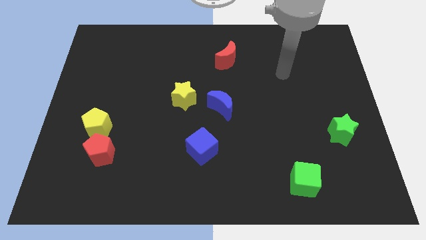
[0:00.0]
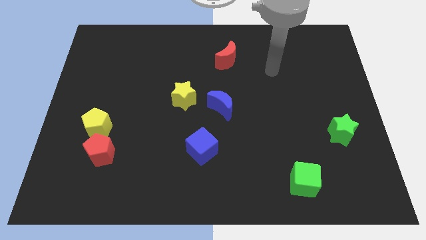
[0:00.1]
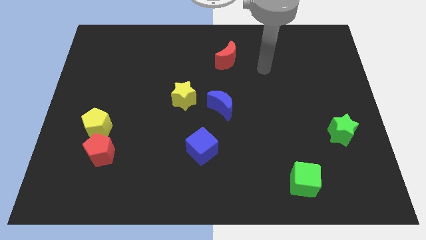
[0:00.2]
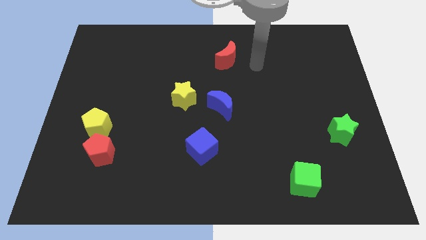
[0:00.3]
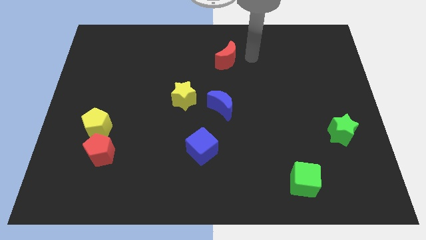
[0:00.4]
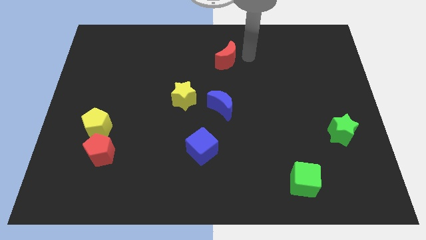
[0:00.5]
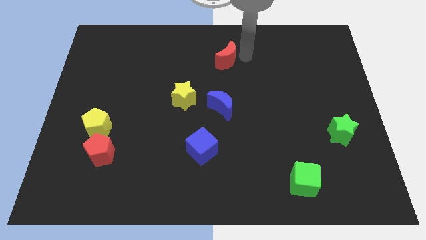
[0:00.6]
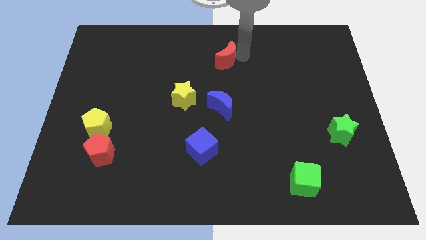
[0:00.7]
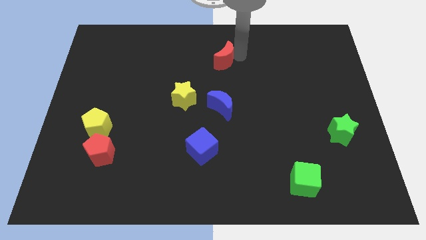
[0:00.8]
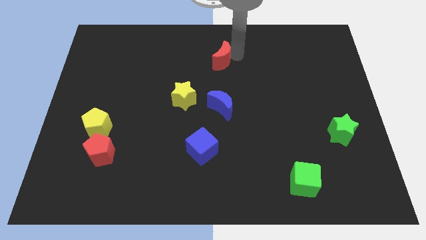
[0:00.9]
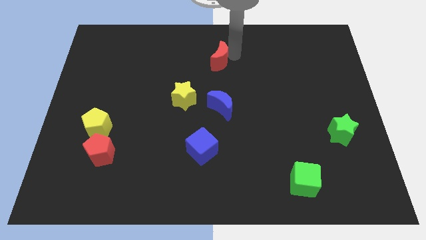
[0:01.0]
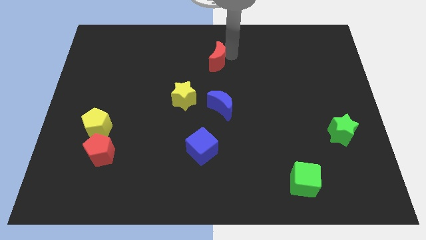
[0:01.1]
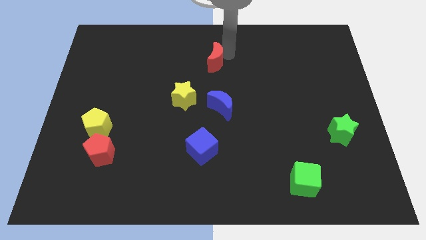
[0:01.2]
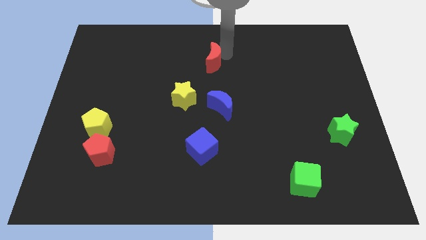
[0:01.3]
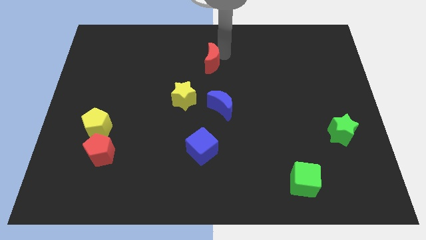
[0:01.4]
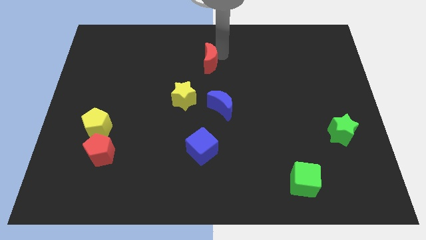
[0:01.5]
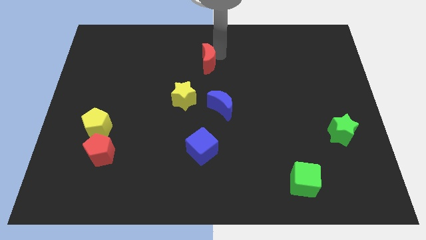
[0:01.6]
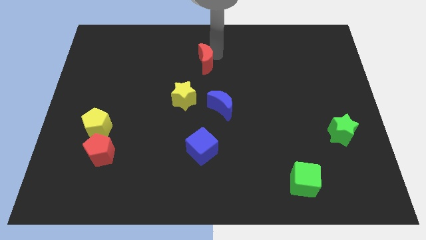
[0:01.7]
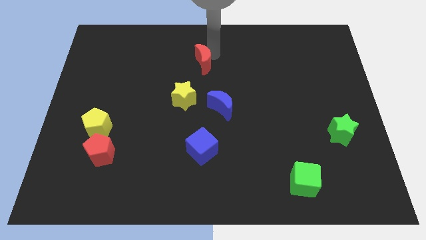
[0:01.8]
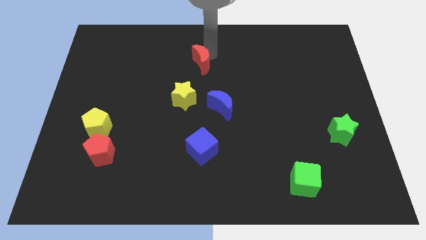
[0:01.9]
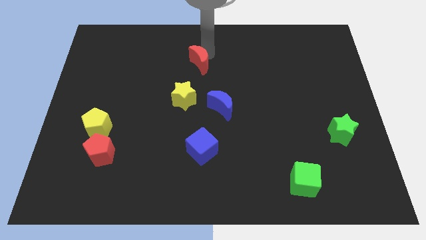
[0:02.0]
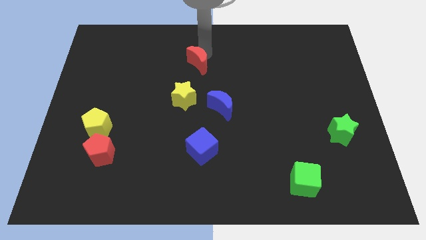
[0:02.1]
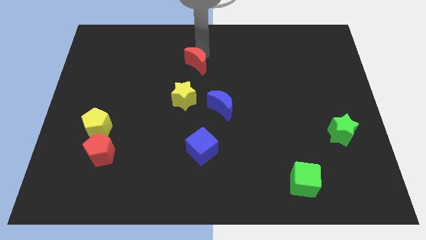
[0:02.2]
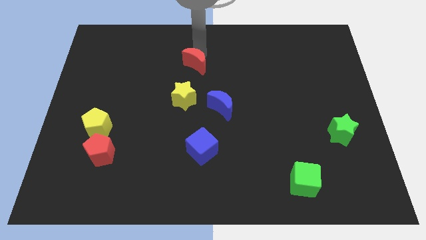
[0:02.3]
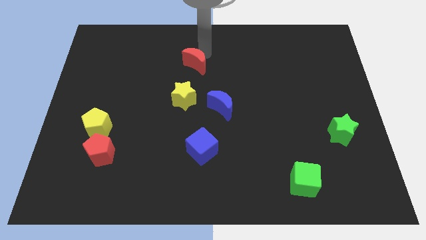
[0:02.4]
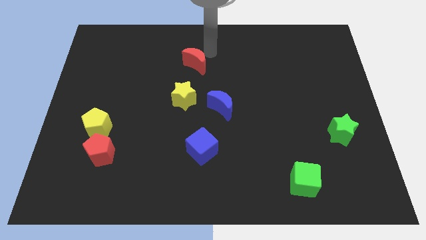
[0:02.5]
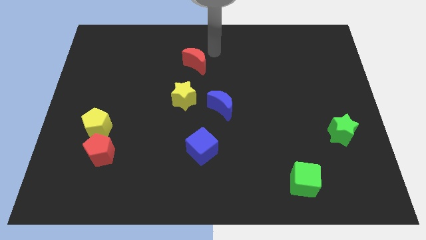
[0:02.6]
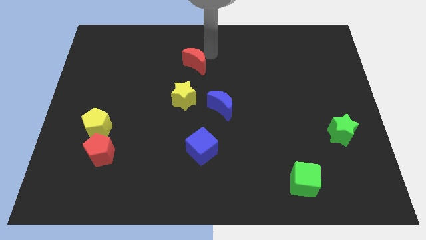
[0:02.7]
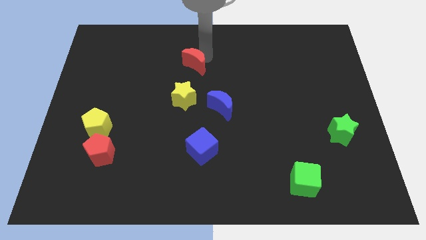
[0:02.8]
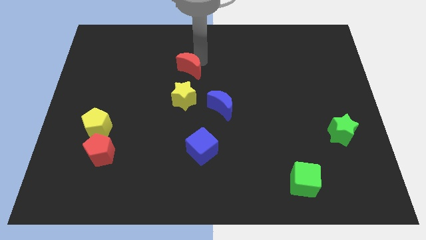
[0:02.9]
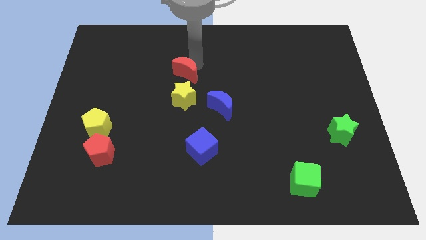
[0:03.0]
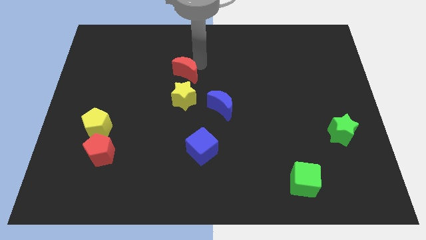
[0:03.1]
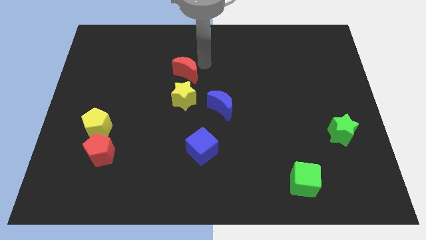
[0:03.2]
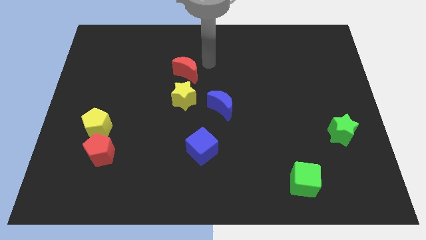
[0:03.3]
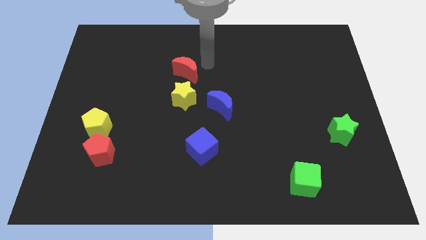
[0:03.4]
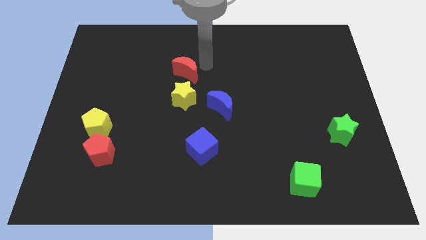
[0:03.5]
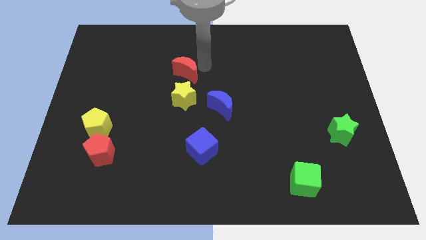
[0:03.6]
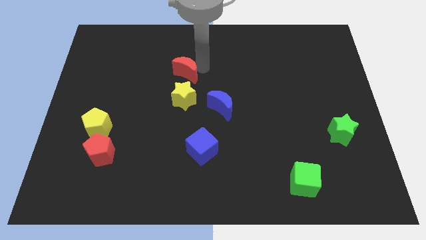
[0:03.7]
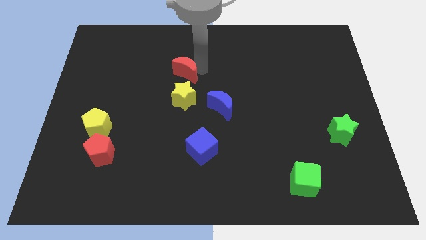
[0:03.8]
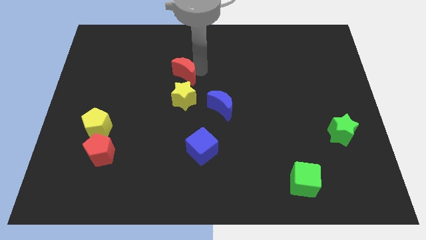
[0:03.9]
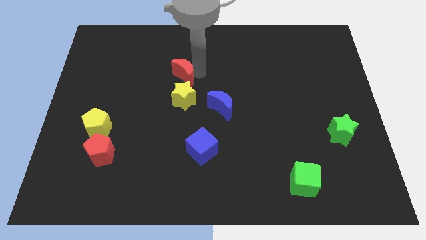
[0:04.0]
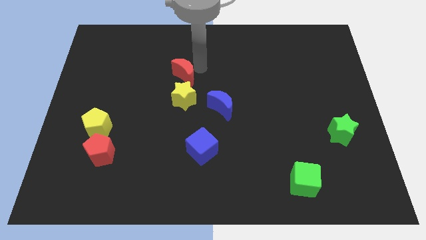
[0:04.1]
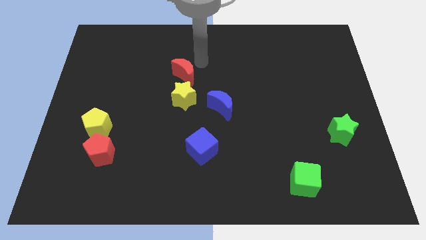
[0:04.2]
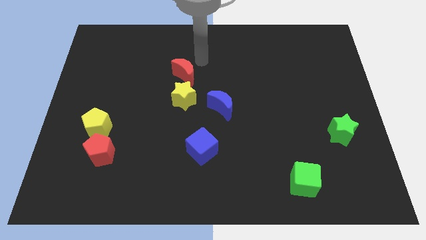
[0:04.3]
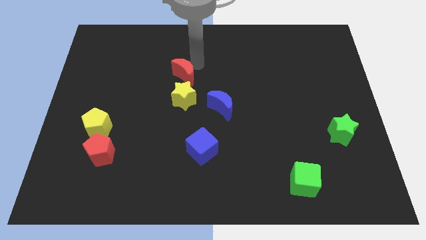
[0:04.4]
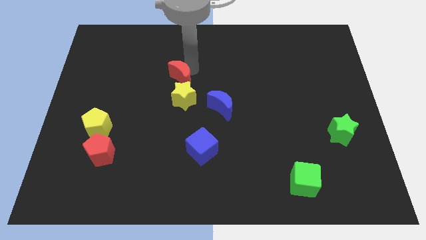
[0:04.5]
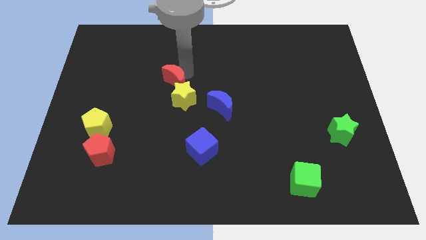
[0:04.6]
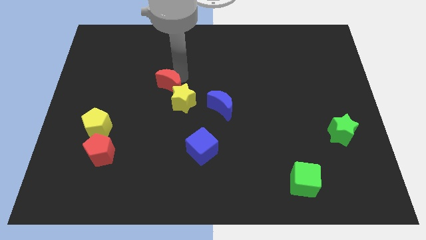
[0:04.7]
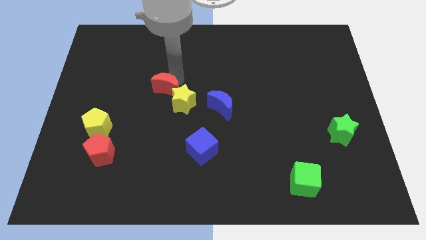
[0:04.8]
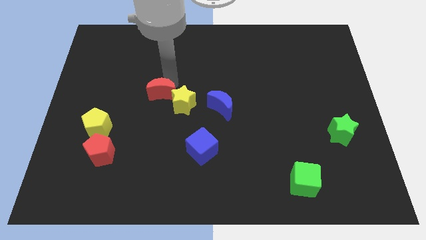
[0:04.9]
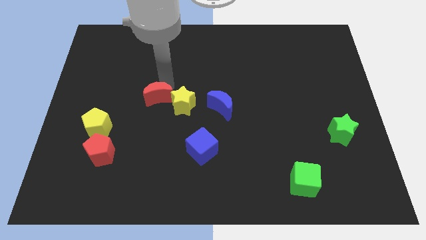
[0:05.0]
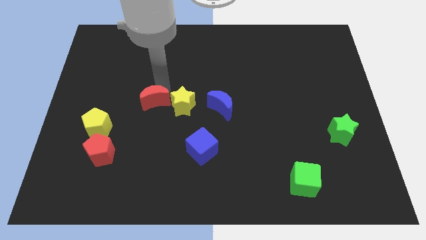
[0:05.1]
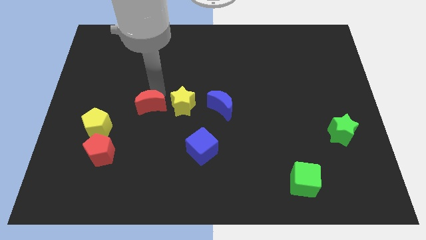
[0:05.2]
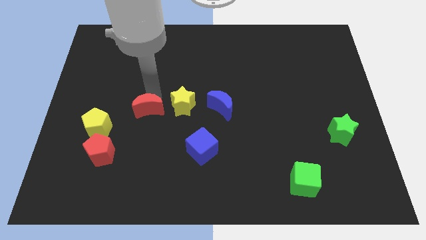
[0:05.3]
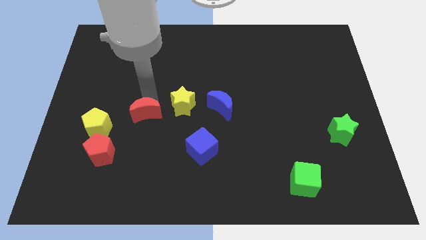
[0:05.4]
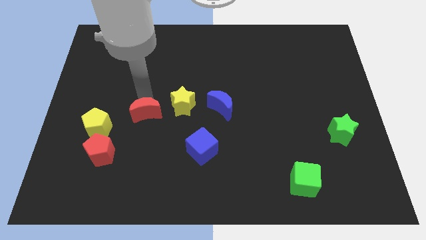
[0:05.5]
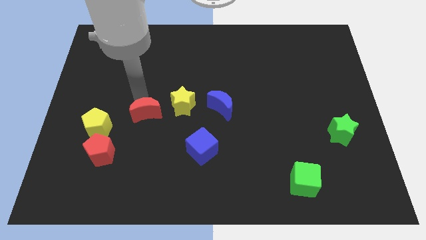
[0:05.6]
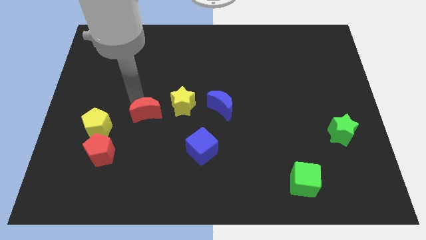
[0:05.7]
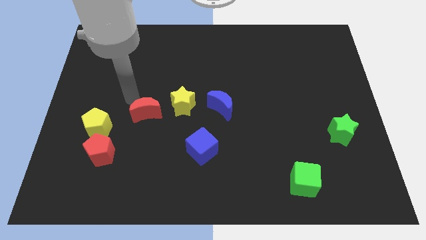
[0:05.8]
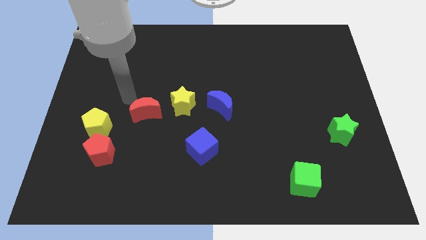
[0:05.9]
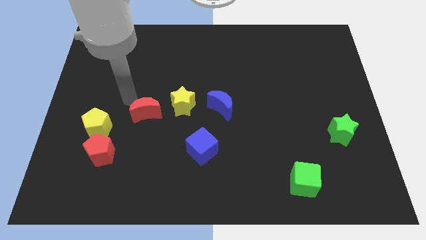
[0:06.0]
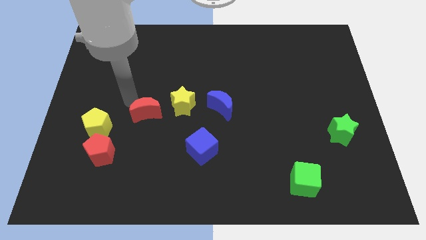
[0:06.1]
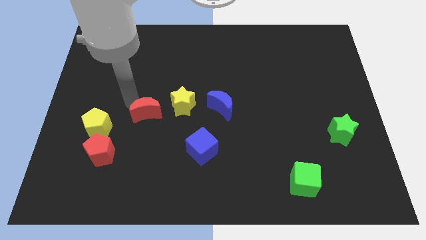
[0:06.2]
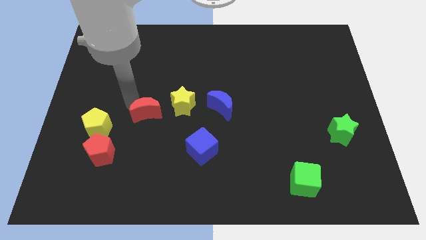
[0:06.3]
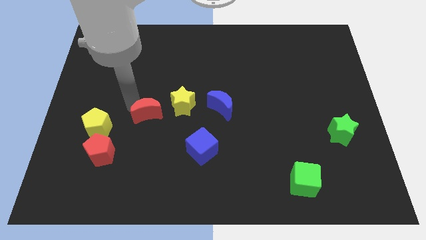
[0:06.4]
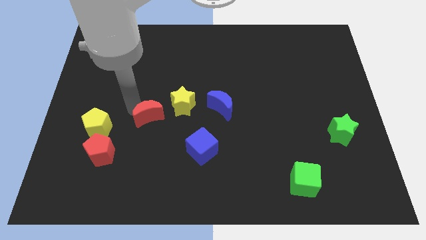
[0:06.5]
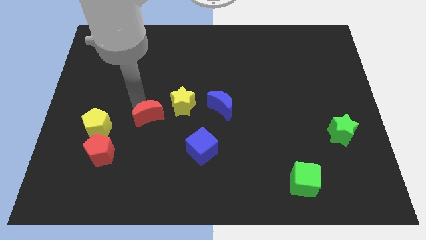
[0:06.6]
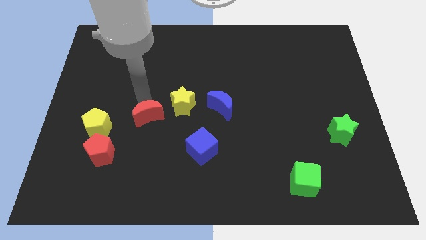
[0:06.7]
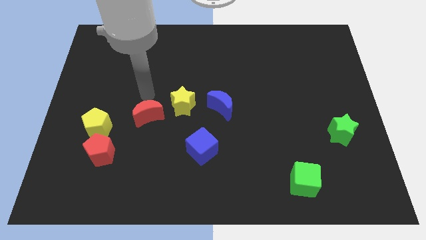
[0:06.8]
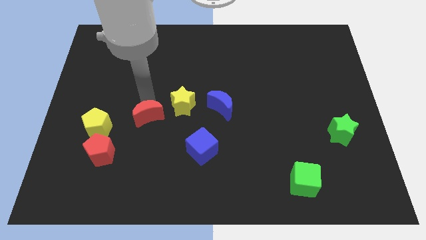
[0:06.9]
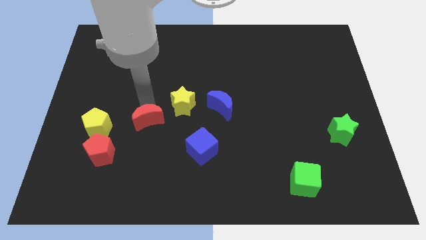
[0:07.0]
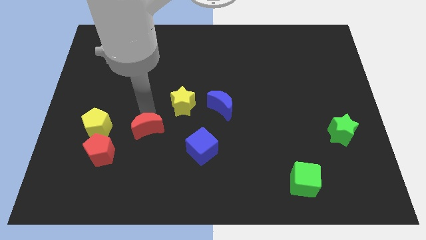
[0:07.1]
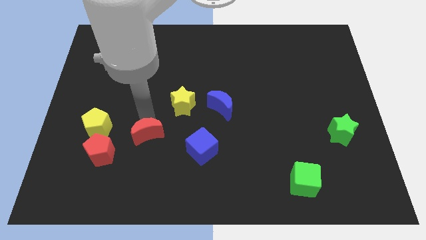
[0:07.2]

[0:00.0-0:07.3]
move the red moon just right of the red pentagon

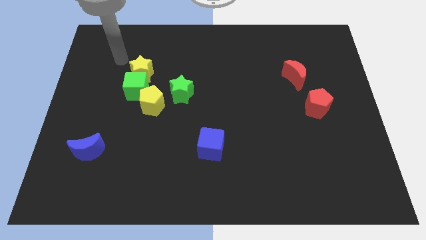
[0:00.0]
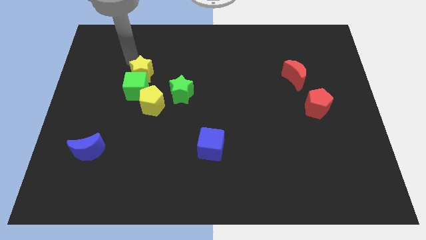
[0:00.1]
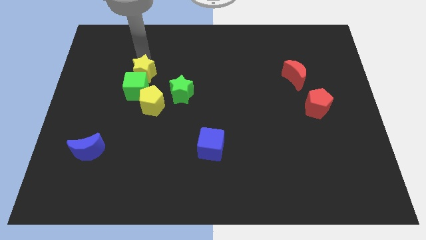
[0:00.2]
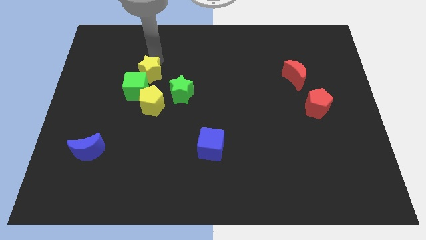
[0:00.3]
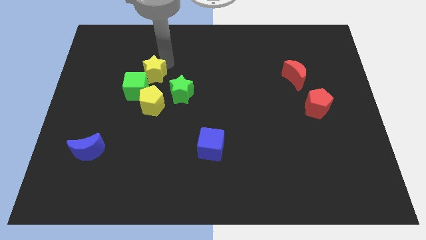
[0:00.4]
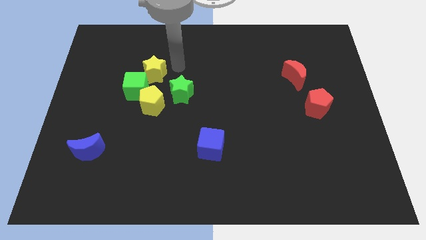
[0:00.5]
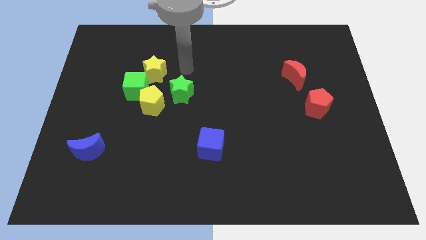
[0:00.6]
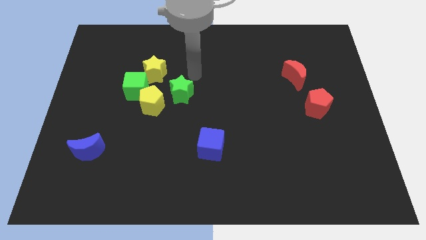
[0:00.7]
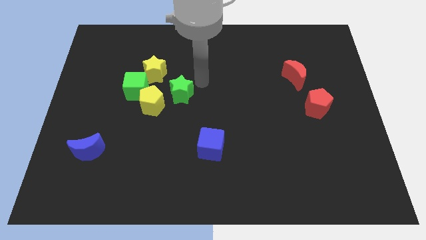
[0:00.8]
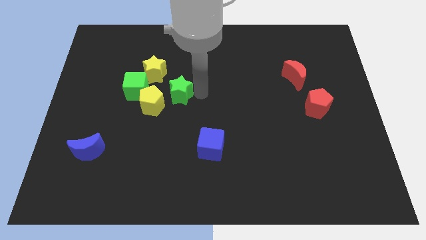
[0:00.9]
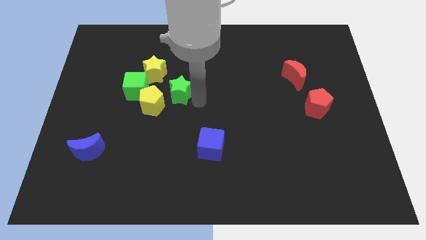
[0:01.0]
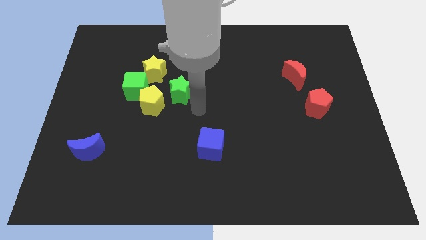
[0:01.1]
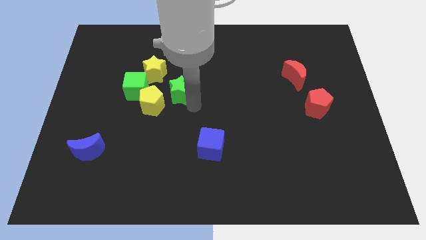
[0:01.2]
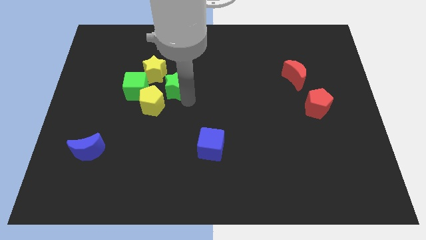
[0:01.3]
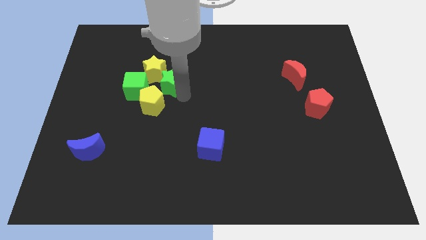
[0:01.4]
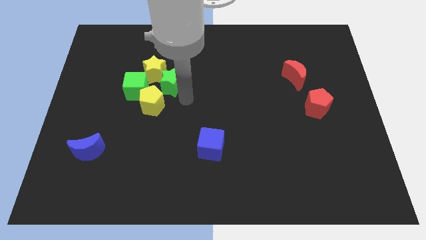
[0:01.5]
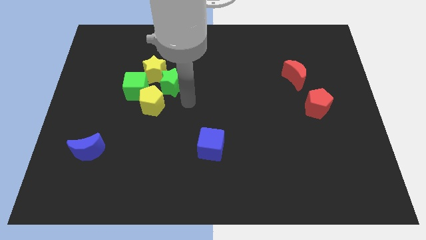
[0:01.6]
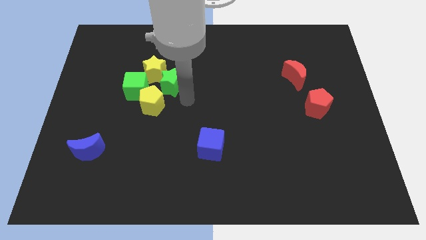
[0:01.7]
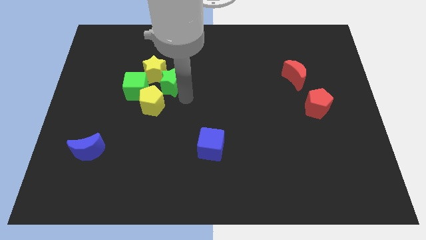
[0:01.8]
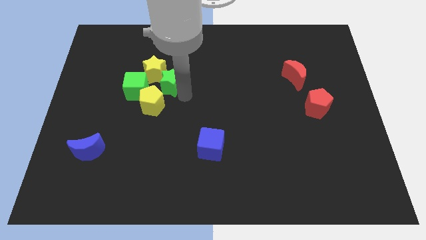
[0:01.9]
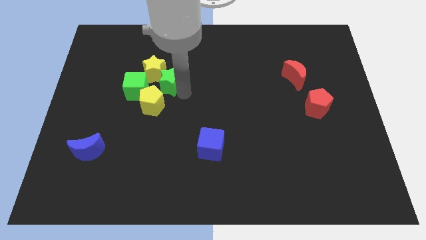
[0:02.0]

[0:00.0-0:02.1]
move the green star diagonally up and to the right of the green cube
